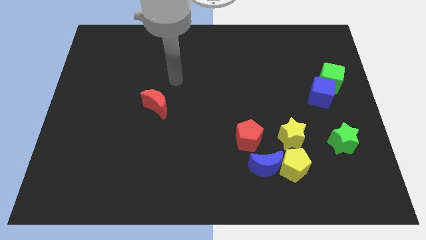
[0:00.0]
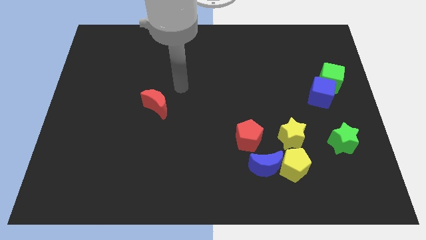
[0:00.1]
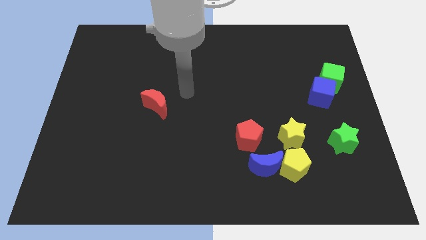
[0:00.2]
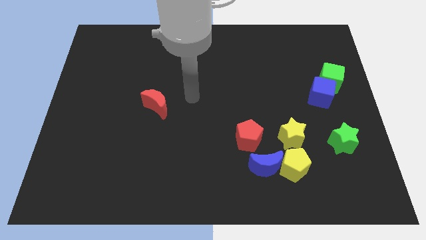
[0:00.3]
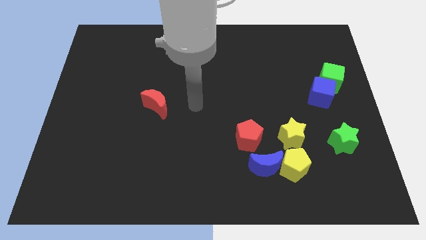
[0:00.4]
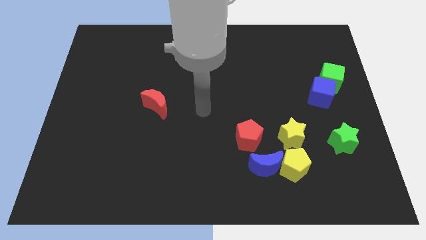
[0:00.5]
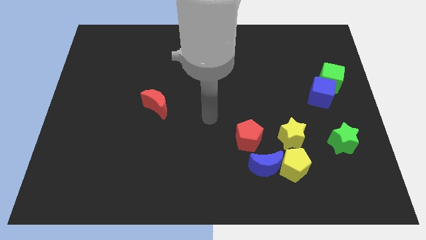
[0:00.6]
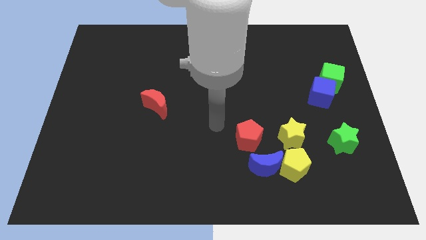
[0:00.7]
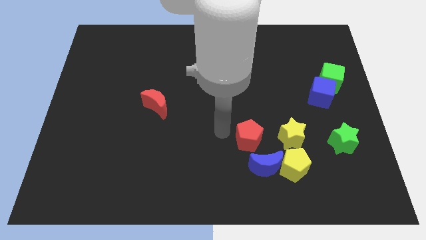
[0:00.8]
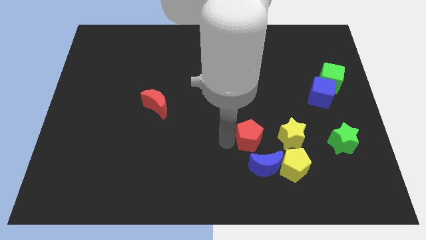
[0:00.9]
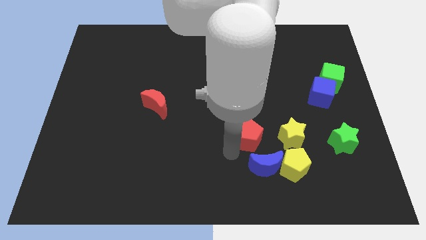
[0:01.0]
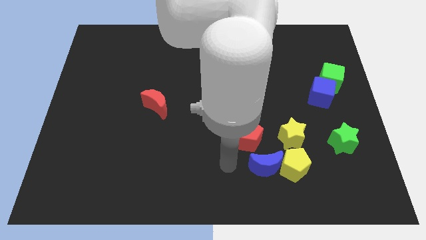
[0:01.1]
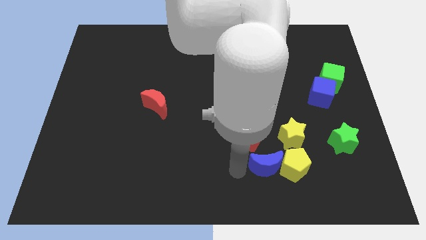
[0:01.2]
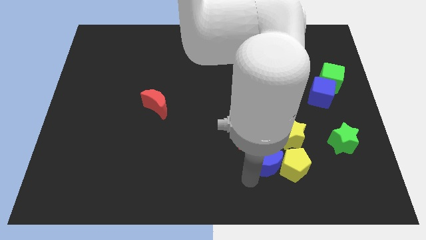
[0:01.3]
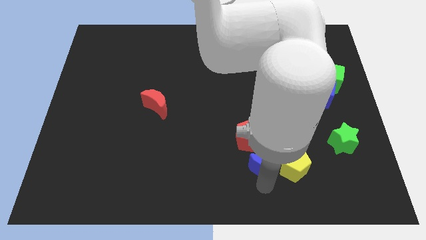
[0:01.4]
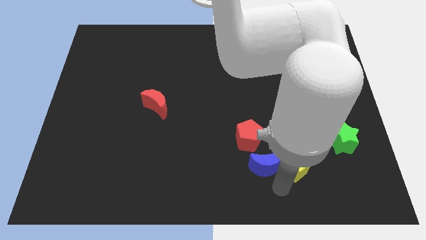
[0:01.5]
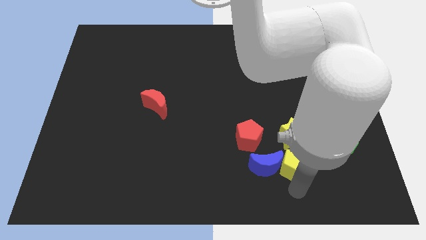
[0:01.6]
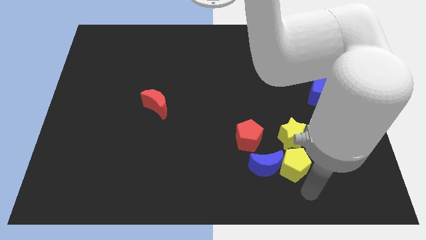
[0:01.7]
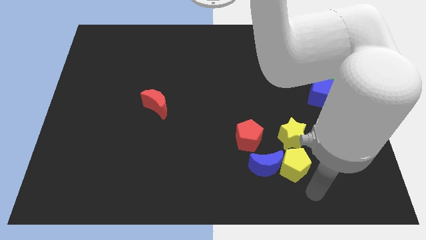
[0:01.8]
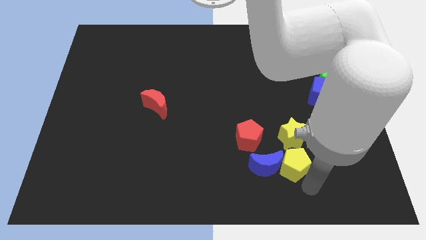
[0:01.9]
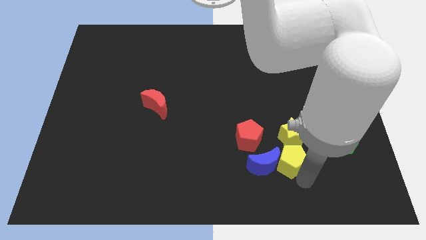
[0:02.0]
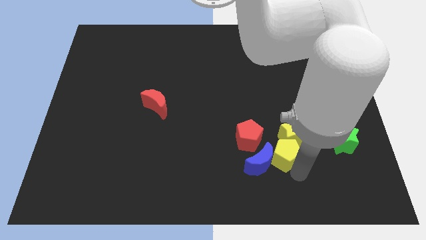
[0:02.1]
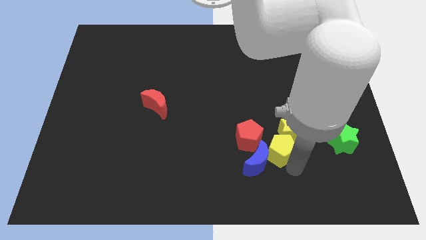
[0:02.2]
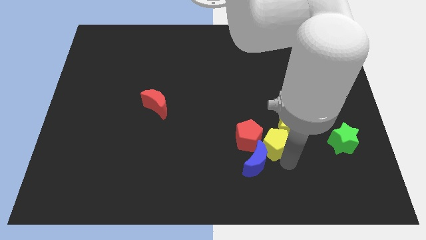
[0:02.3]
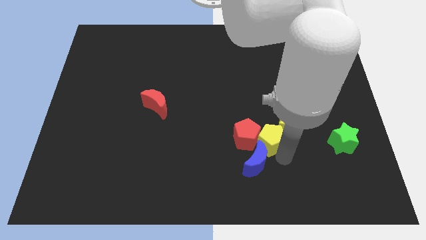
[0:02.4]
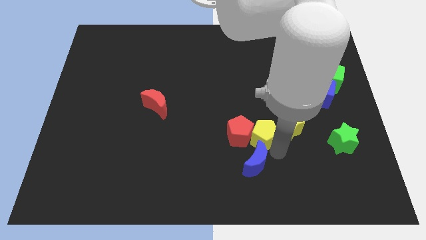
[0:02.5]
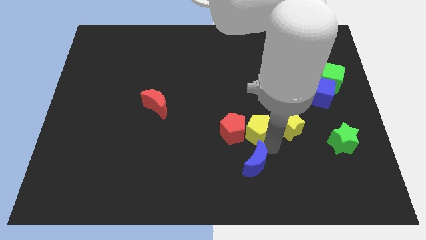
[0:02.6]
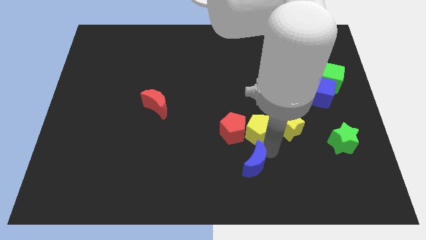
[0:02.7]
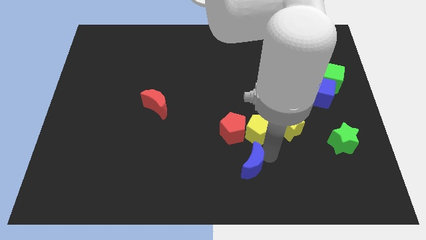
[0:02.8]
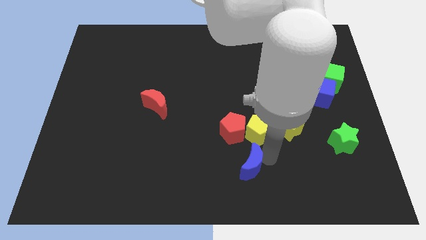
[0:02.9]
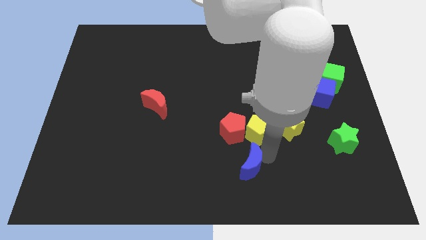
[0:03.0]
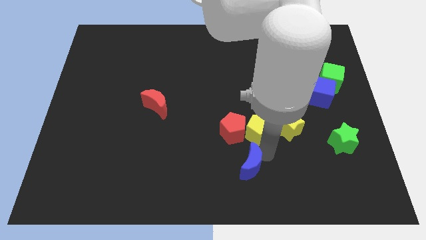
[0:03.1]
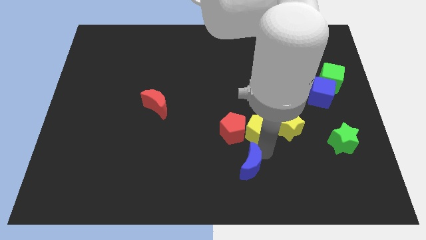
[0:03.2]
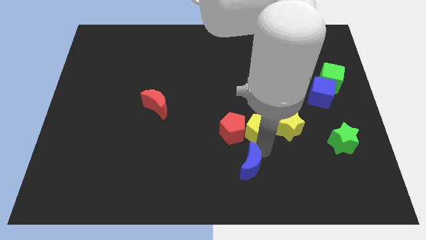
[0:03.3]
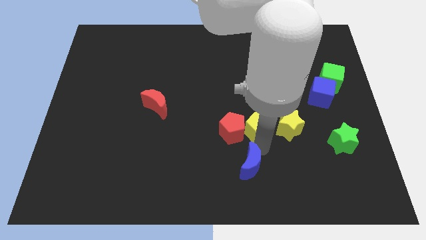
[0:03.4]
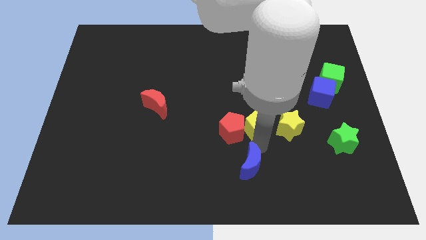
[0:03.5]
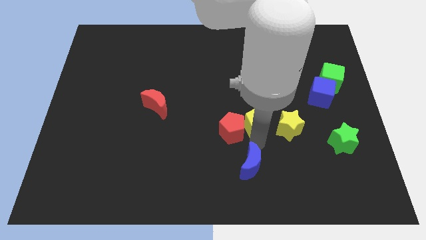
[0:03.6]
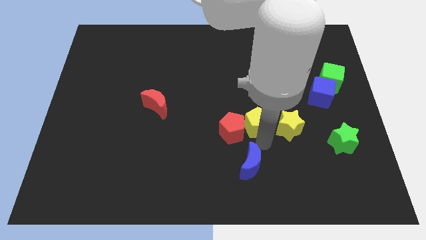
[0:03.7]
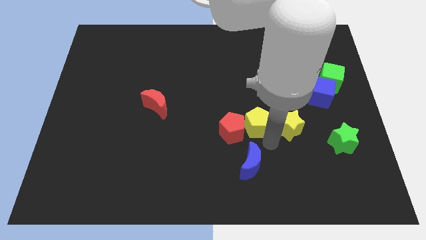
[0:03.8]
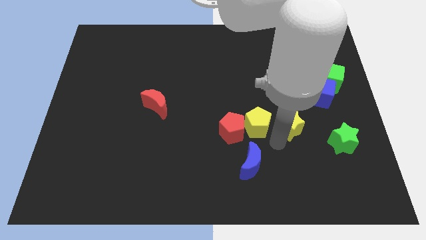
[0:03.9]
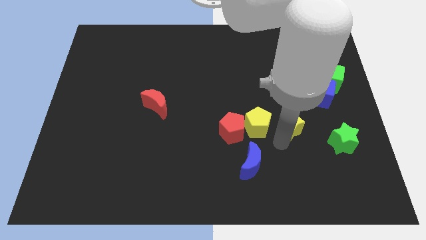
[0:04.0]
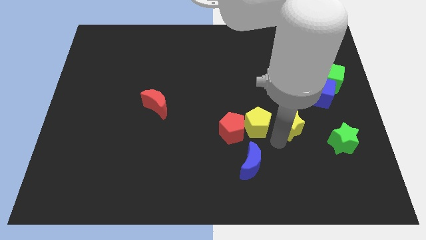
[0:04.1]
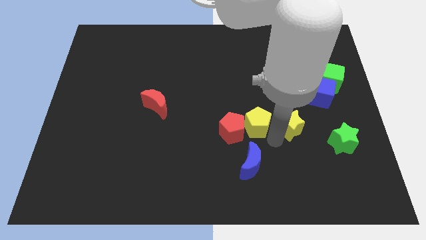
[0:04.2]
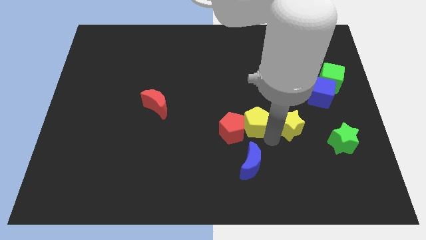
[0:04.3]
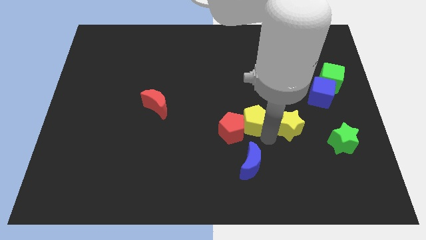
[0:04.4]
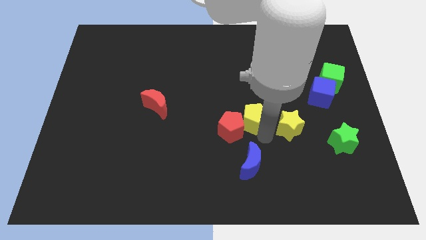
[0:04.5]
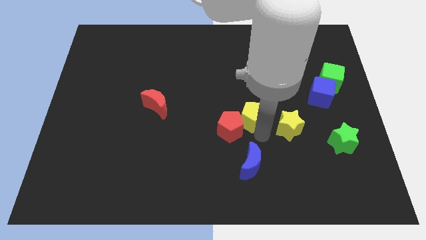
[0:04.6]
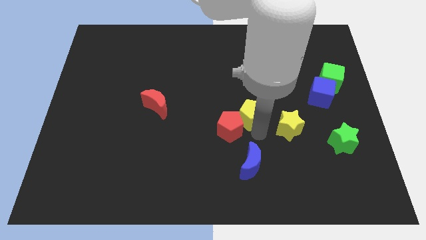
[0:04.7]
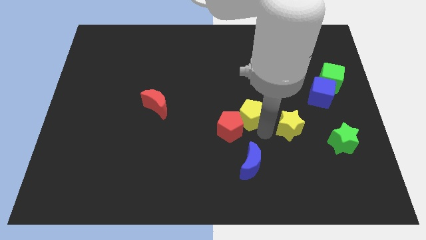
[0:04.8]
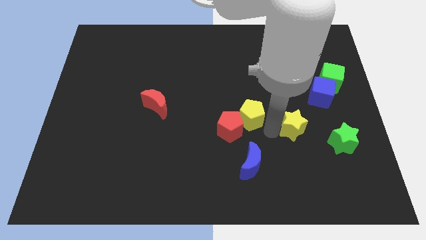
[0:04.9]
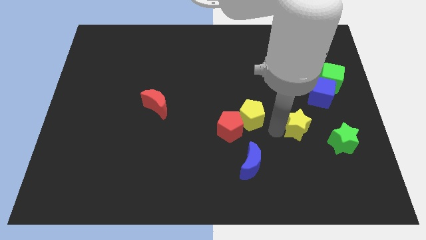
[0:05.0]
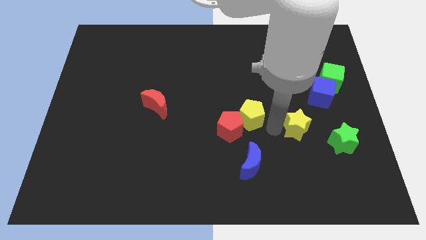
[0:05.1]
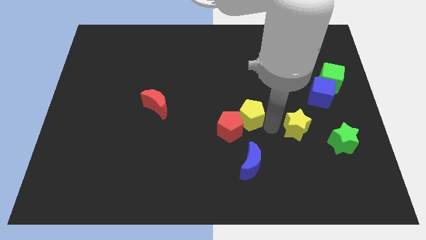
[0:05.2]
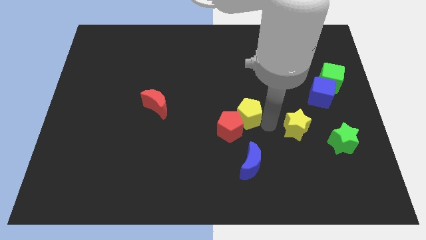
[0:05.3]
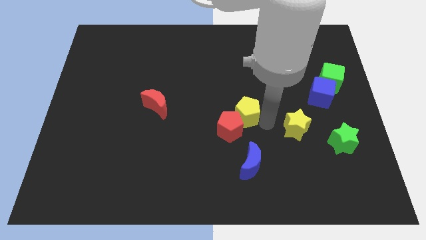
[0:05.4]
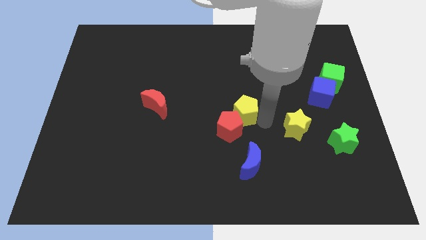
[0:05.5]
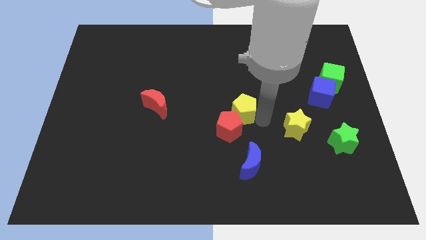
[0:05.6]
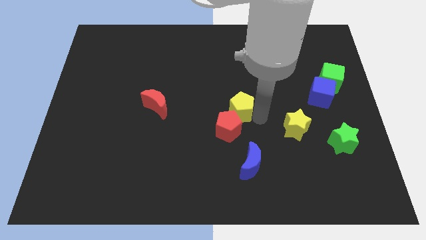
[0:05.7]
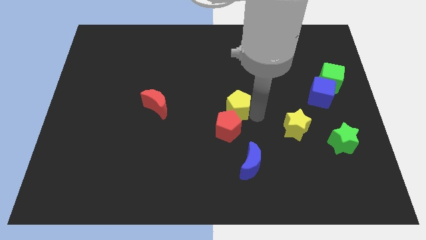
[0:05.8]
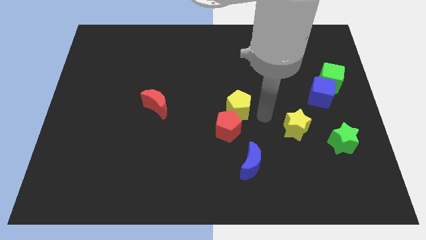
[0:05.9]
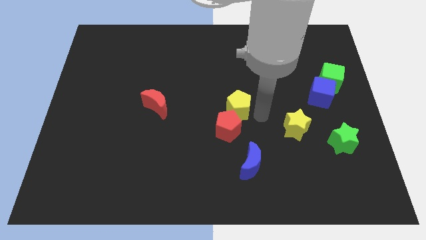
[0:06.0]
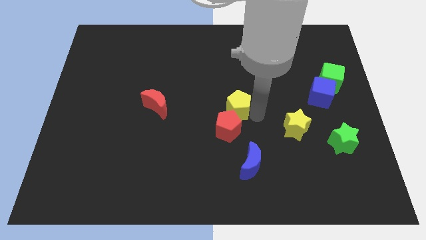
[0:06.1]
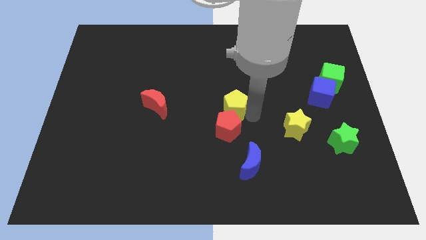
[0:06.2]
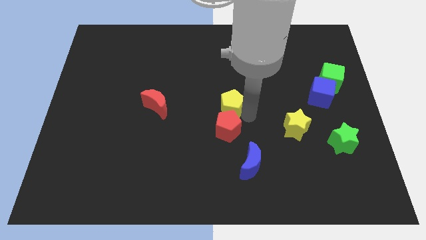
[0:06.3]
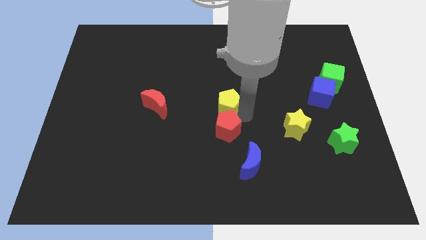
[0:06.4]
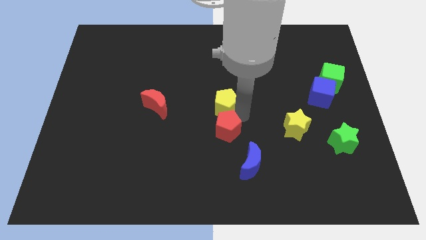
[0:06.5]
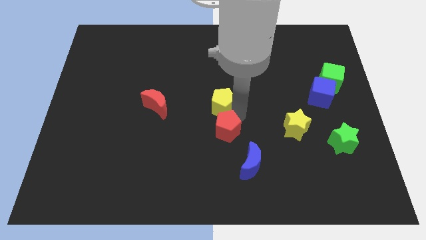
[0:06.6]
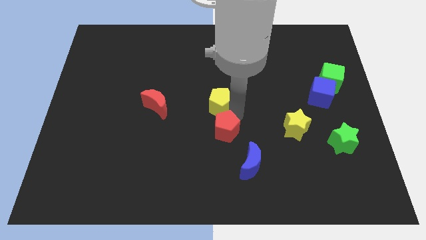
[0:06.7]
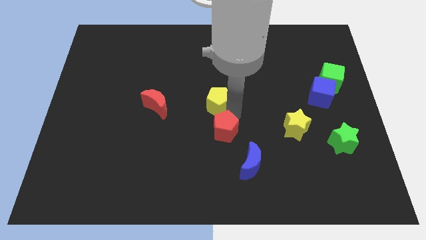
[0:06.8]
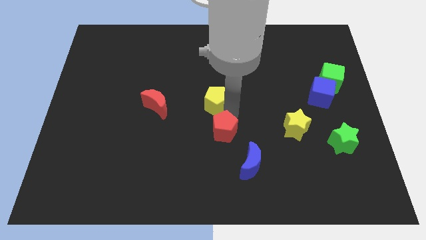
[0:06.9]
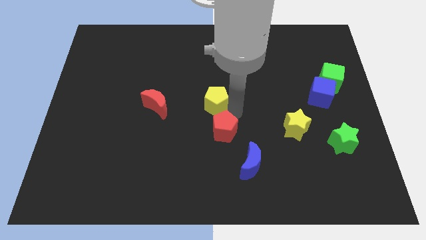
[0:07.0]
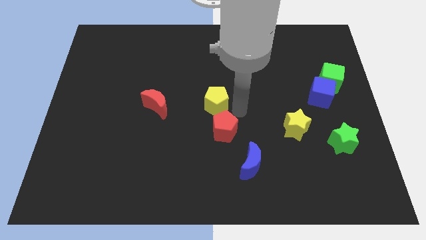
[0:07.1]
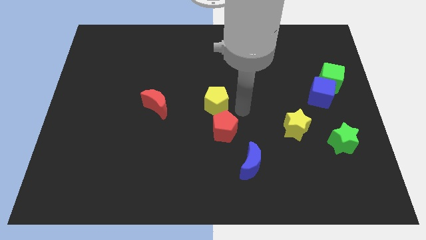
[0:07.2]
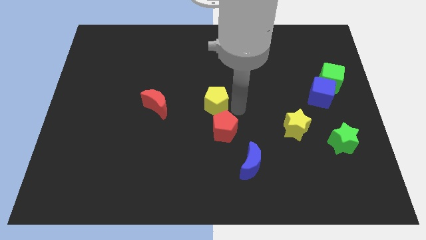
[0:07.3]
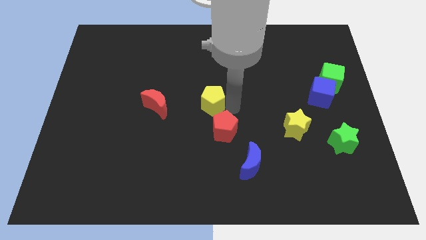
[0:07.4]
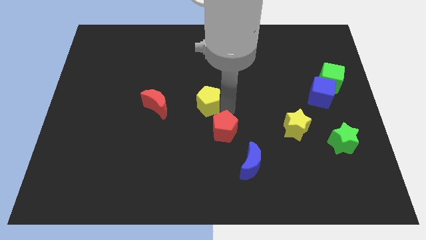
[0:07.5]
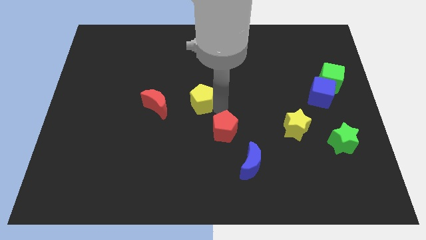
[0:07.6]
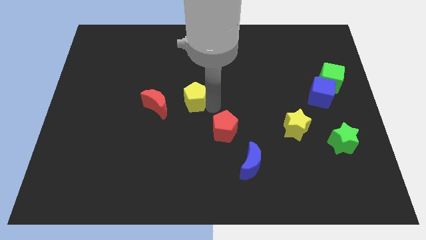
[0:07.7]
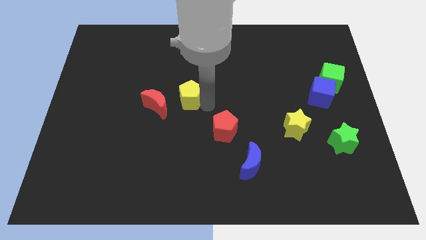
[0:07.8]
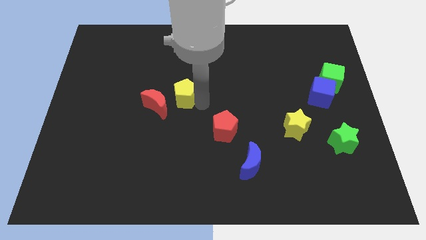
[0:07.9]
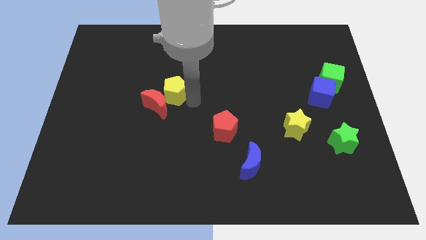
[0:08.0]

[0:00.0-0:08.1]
slide the yellow pentagon above the red moon
